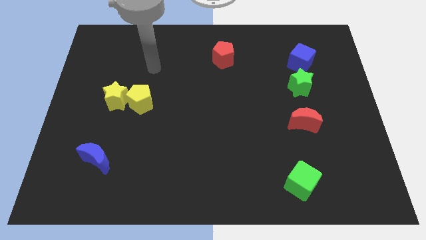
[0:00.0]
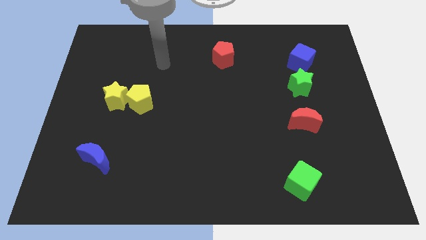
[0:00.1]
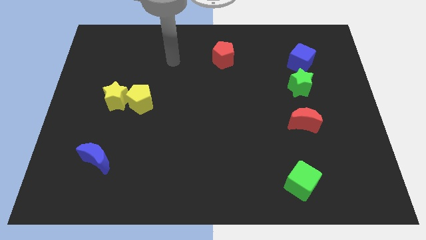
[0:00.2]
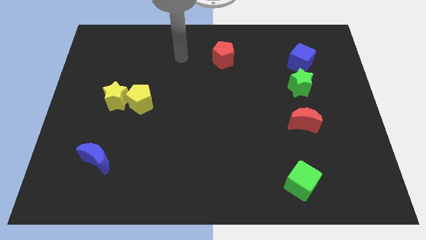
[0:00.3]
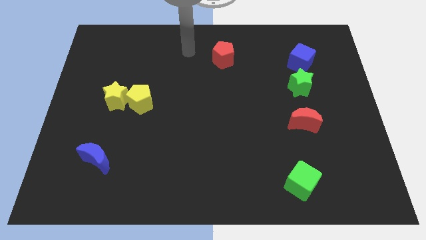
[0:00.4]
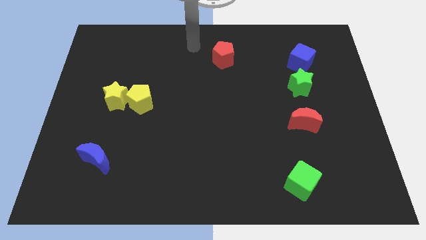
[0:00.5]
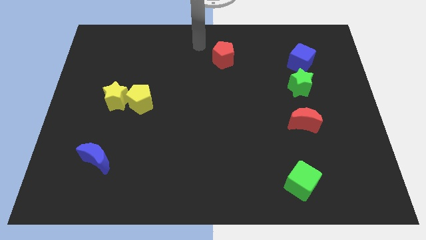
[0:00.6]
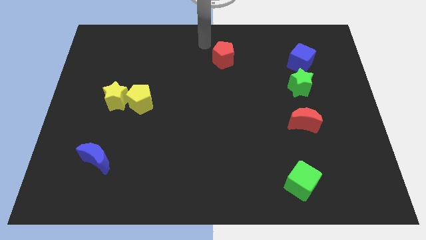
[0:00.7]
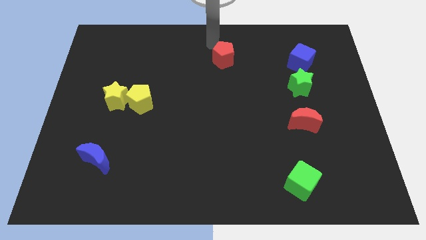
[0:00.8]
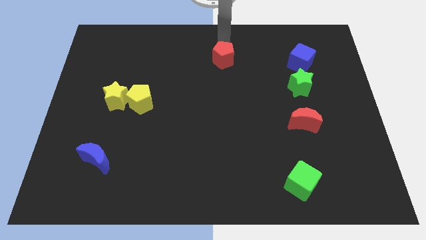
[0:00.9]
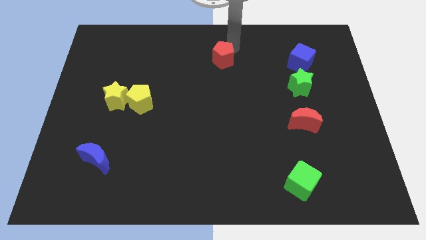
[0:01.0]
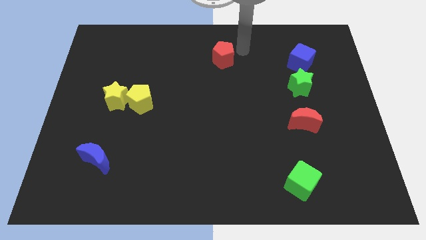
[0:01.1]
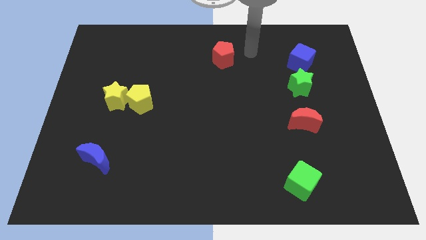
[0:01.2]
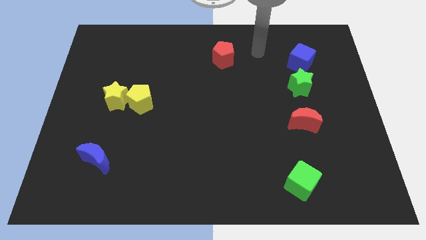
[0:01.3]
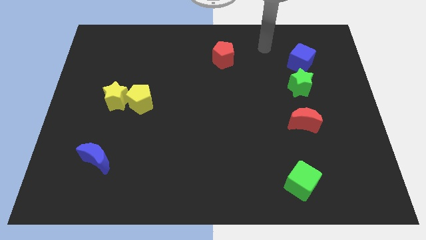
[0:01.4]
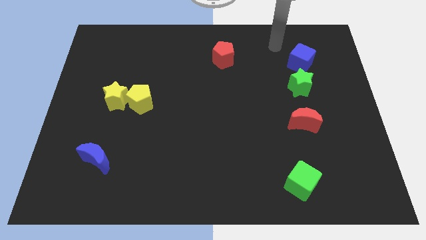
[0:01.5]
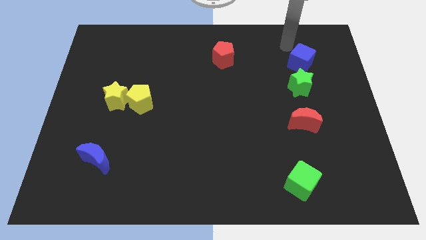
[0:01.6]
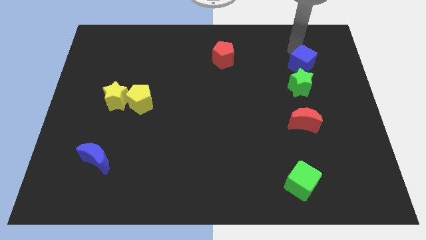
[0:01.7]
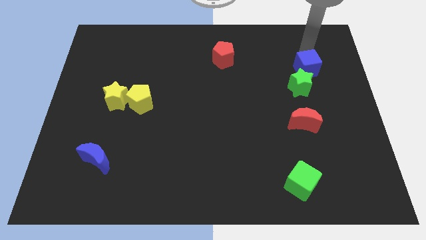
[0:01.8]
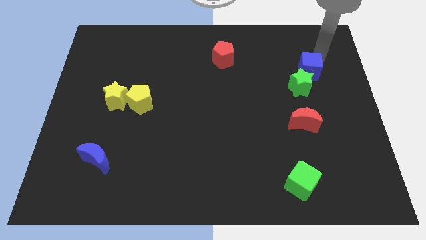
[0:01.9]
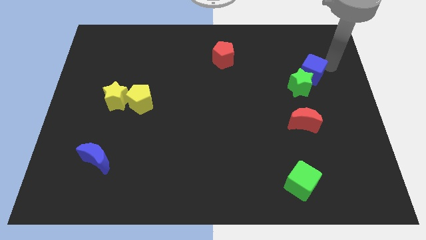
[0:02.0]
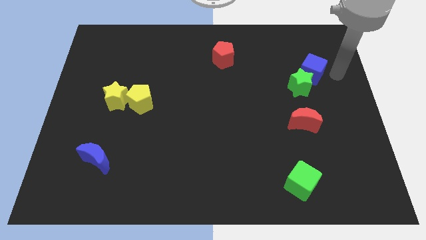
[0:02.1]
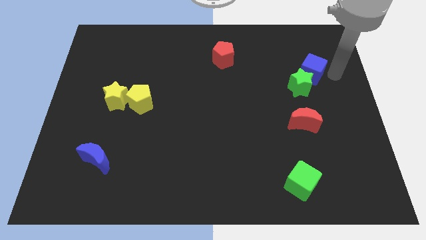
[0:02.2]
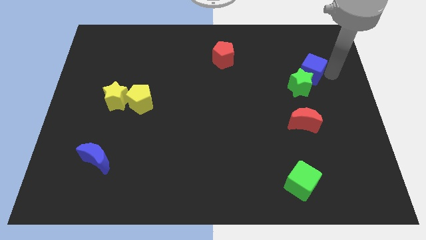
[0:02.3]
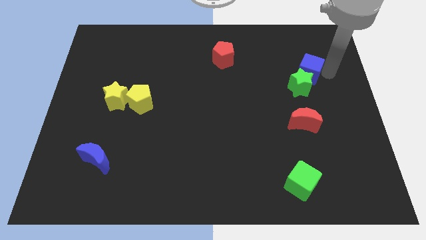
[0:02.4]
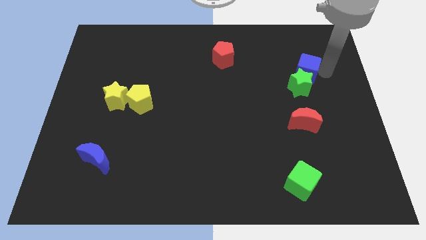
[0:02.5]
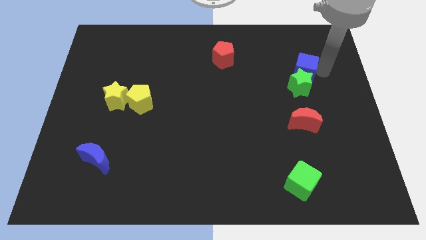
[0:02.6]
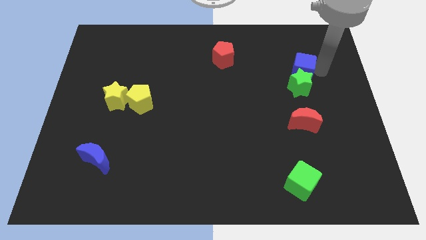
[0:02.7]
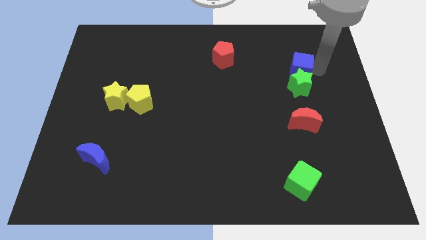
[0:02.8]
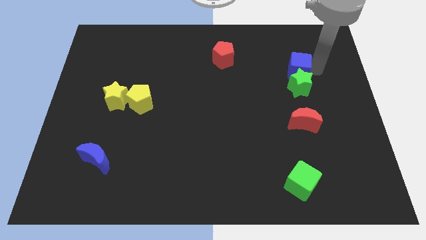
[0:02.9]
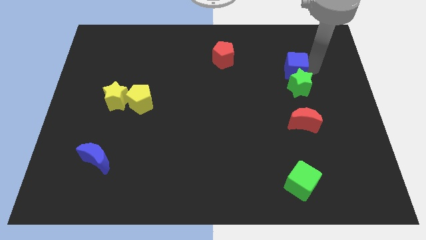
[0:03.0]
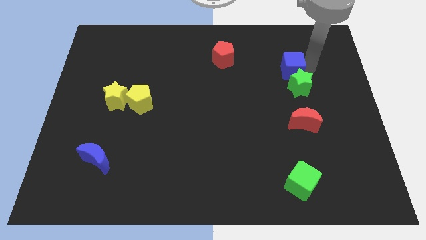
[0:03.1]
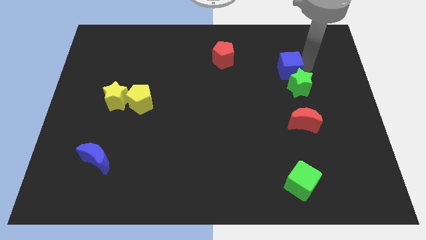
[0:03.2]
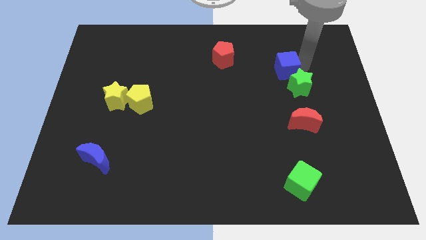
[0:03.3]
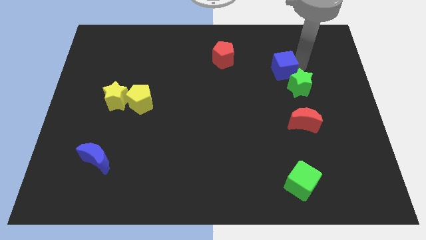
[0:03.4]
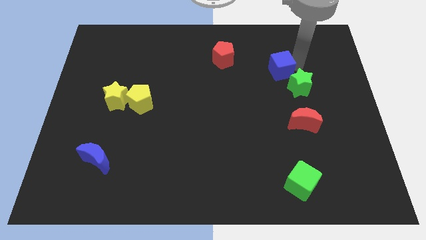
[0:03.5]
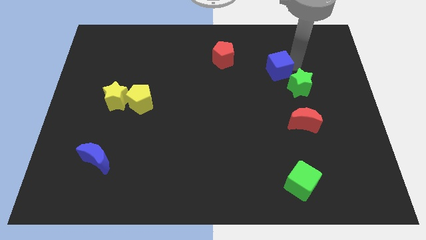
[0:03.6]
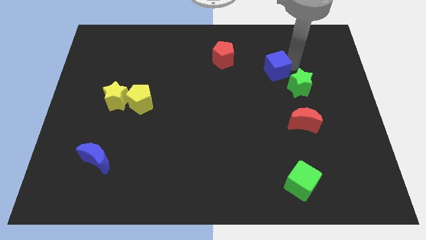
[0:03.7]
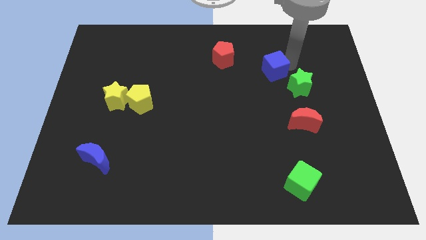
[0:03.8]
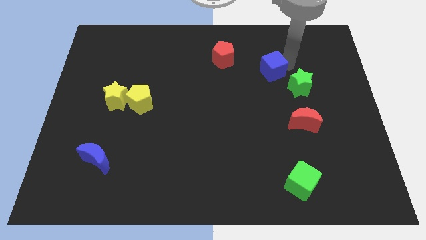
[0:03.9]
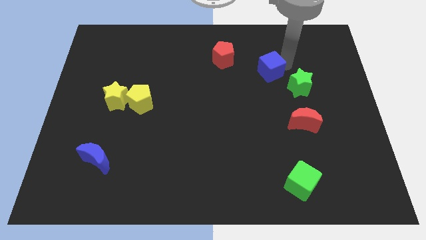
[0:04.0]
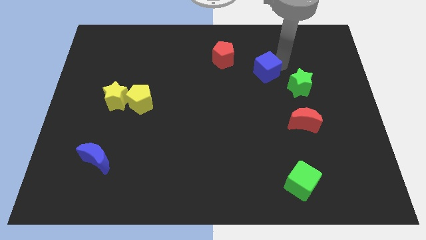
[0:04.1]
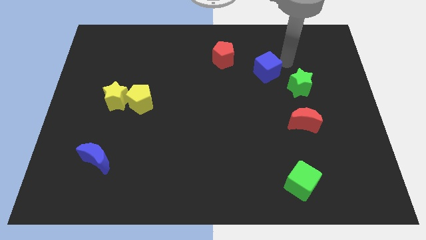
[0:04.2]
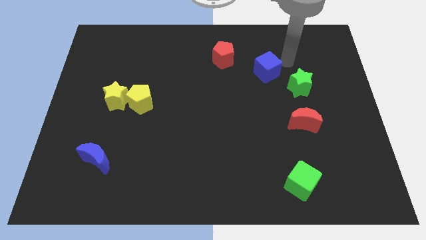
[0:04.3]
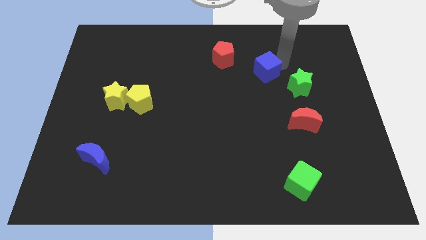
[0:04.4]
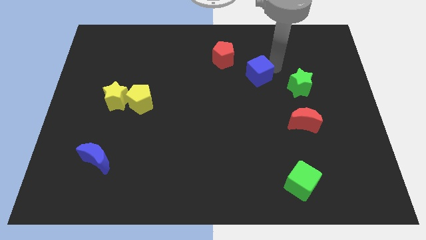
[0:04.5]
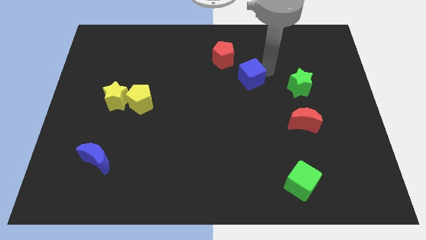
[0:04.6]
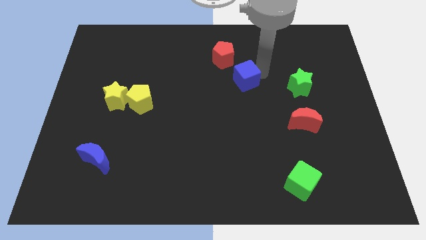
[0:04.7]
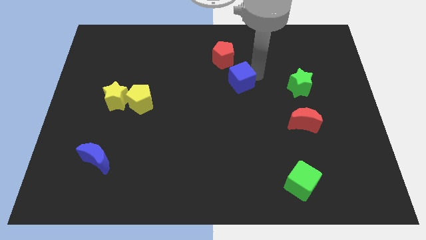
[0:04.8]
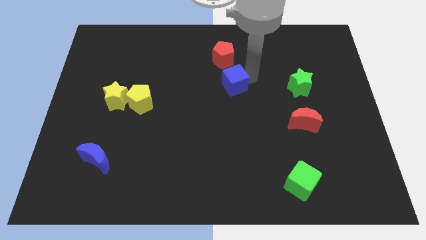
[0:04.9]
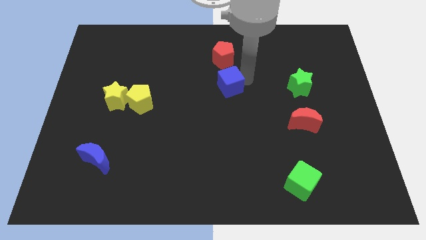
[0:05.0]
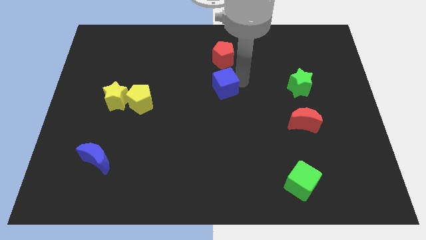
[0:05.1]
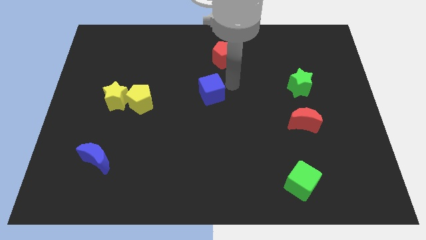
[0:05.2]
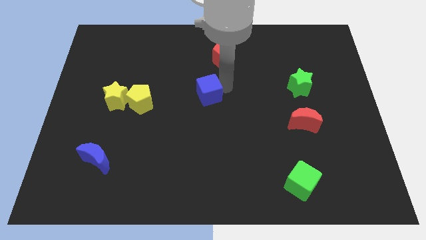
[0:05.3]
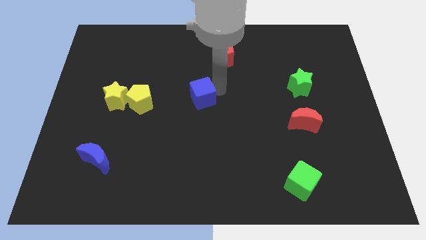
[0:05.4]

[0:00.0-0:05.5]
put the blue cube right of the yellow pentagon

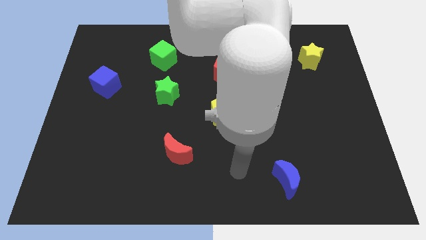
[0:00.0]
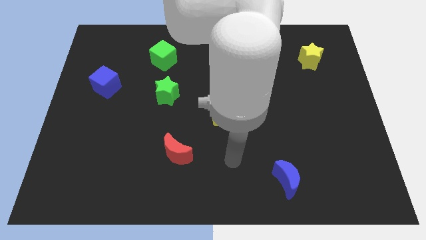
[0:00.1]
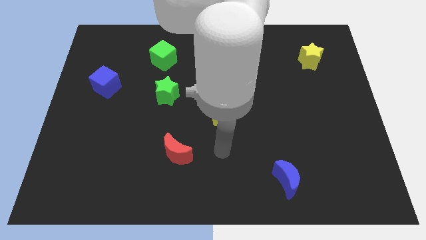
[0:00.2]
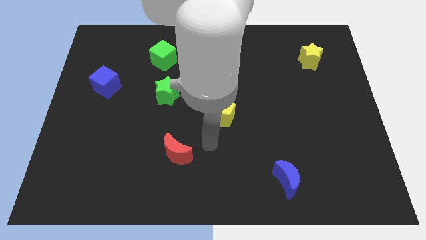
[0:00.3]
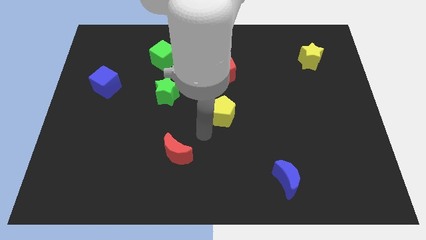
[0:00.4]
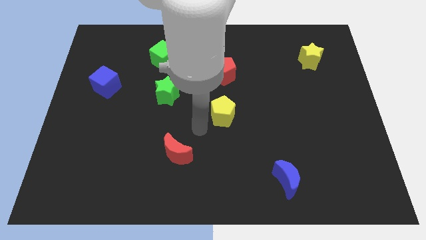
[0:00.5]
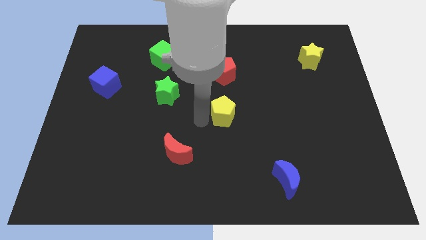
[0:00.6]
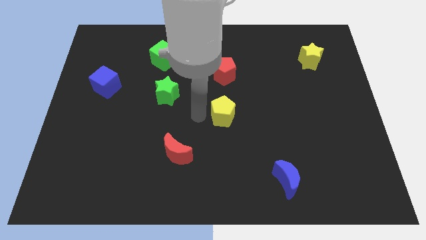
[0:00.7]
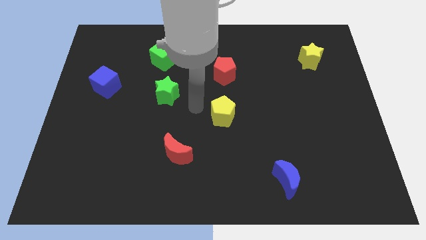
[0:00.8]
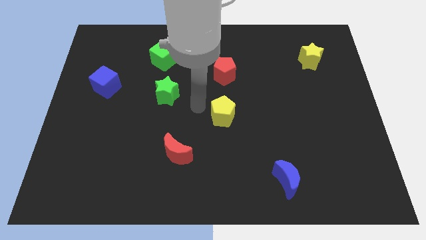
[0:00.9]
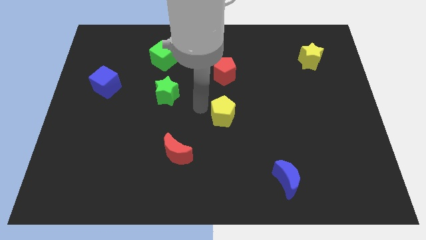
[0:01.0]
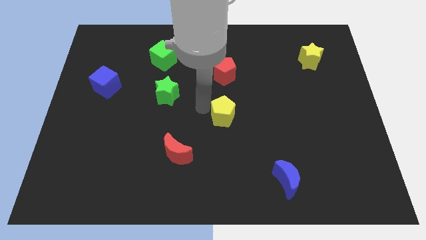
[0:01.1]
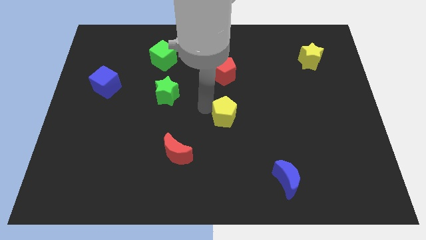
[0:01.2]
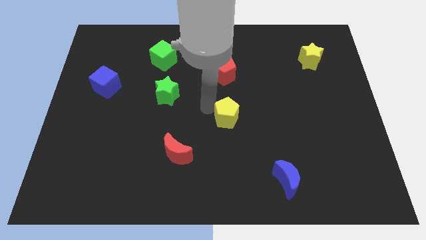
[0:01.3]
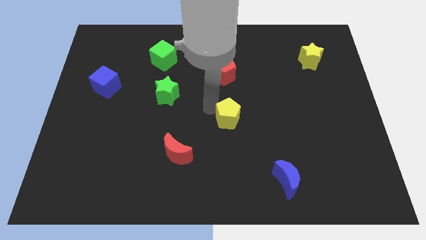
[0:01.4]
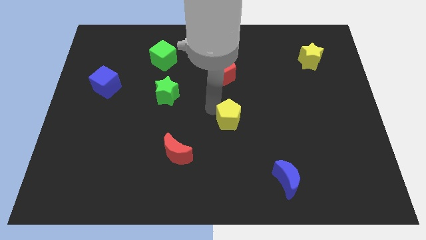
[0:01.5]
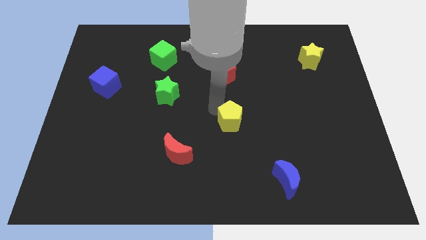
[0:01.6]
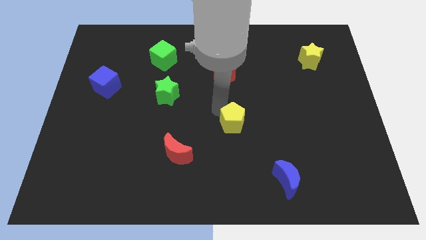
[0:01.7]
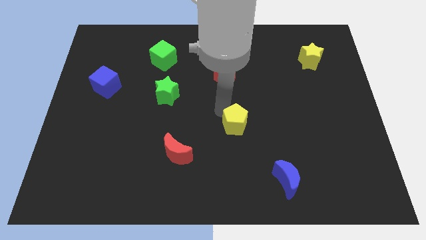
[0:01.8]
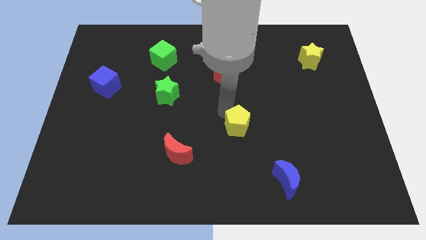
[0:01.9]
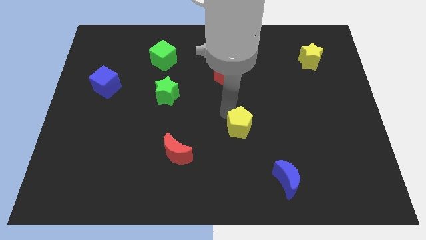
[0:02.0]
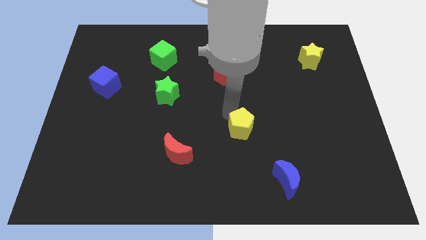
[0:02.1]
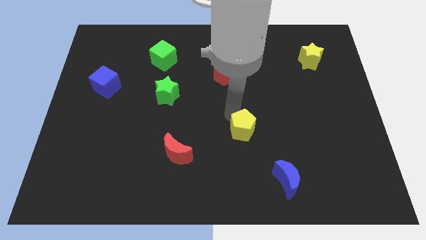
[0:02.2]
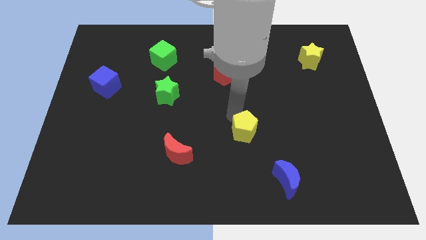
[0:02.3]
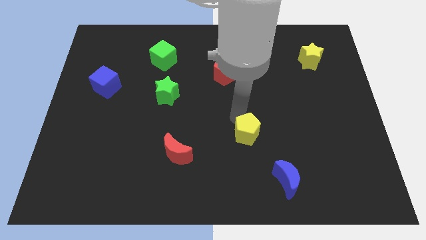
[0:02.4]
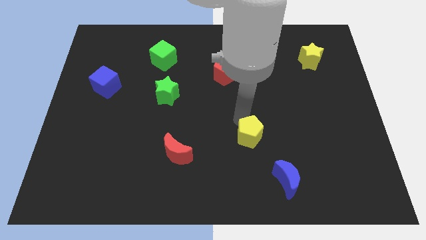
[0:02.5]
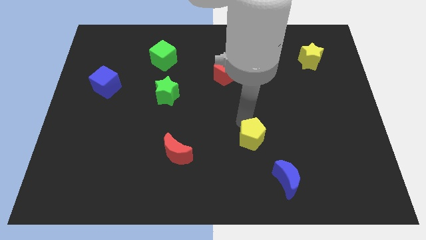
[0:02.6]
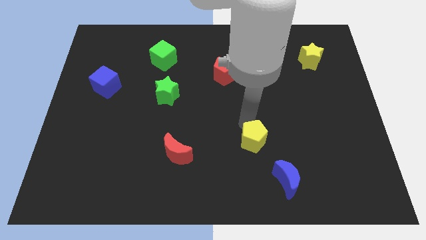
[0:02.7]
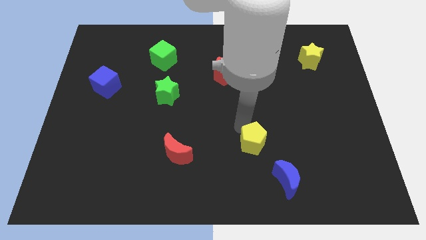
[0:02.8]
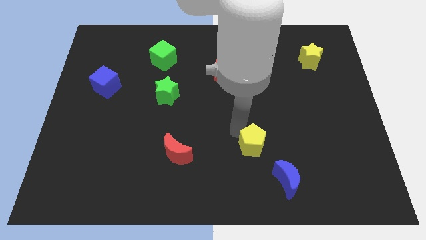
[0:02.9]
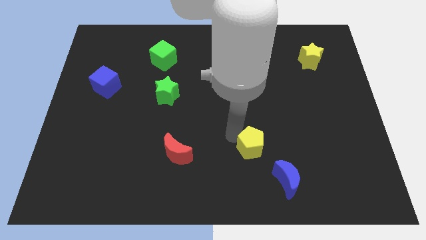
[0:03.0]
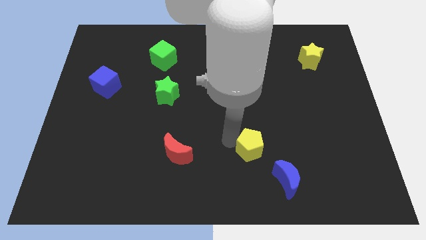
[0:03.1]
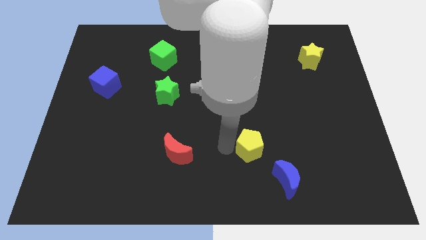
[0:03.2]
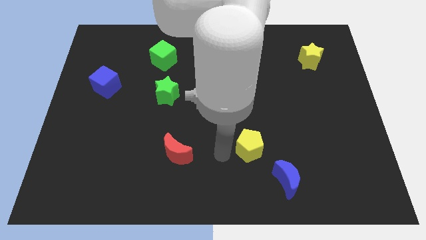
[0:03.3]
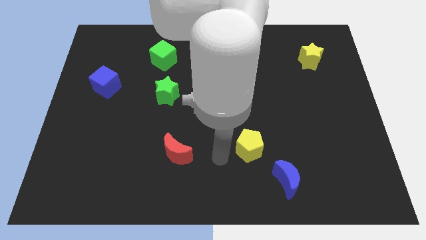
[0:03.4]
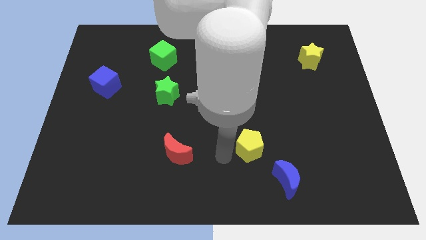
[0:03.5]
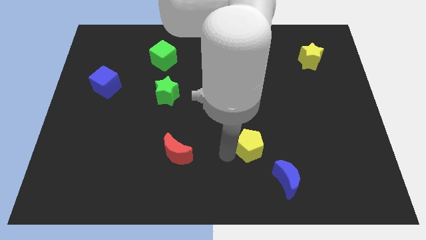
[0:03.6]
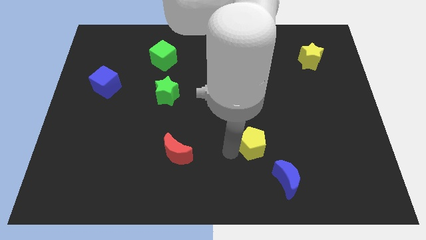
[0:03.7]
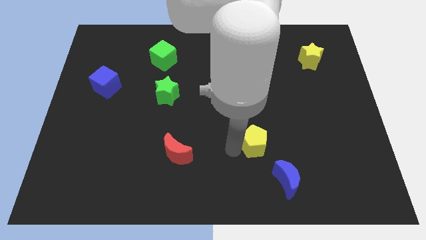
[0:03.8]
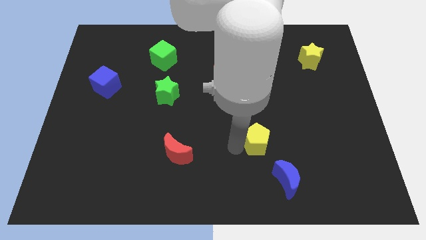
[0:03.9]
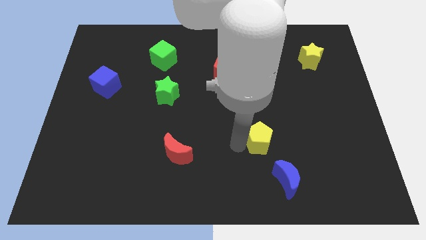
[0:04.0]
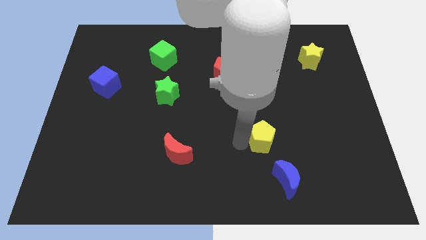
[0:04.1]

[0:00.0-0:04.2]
put the yellow pentagon to the top side of the blue moon
